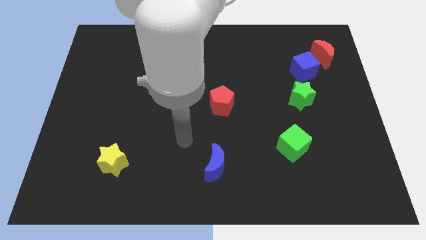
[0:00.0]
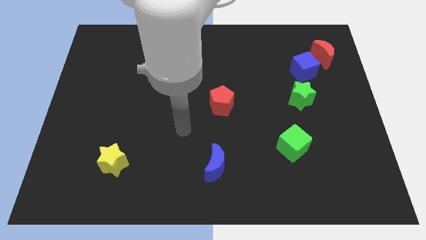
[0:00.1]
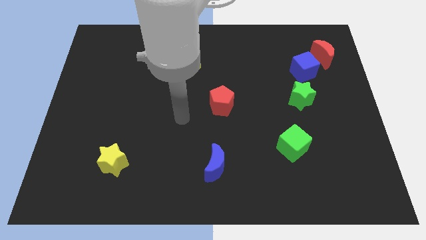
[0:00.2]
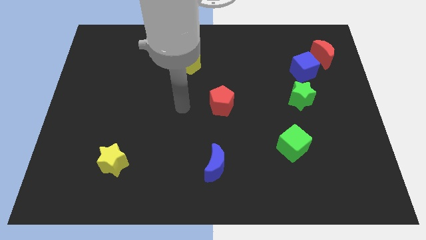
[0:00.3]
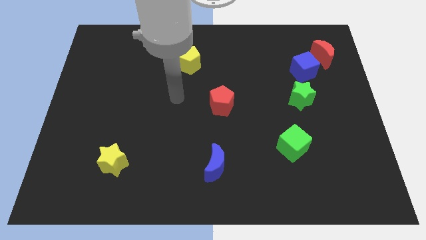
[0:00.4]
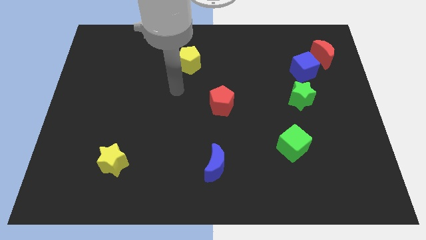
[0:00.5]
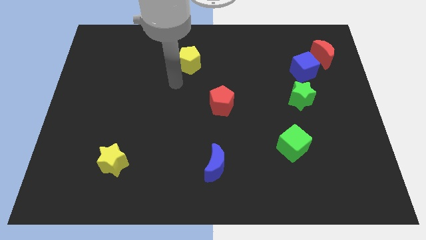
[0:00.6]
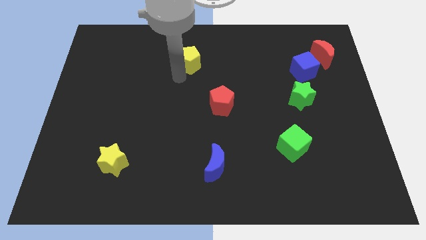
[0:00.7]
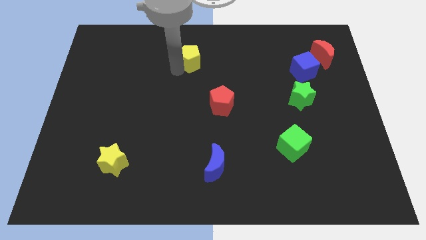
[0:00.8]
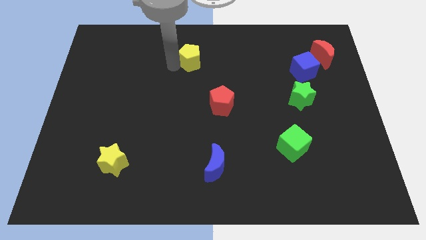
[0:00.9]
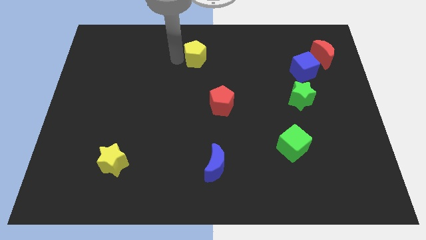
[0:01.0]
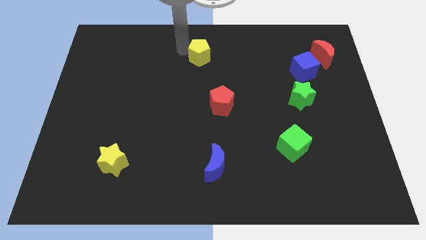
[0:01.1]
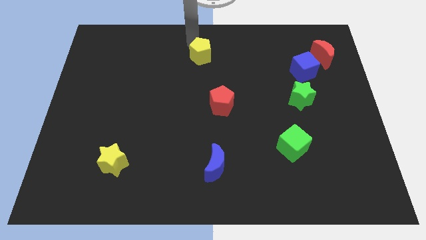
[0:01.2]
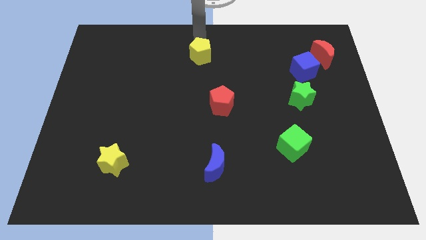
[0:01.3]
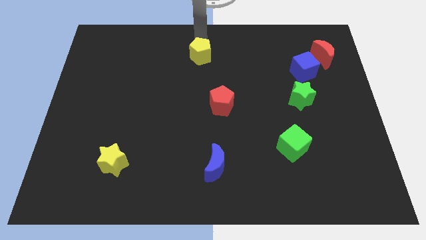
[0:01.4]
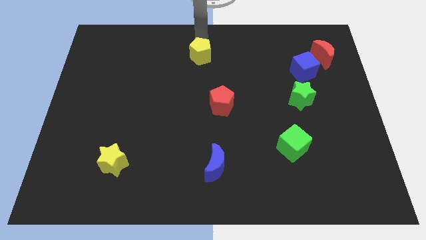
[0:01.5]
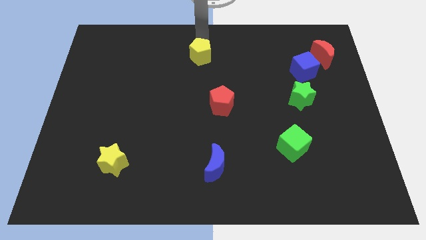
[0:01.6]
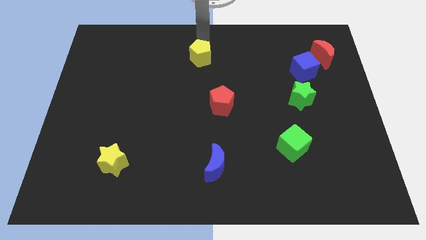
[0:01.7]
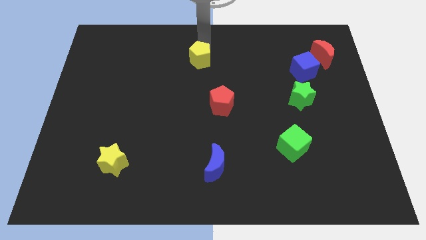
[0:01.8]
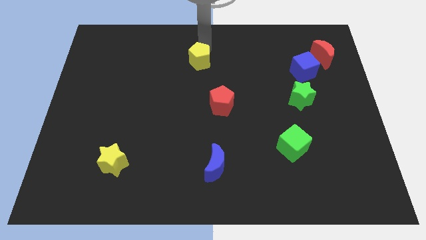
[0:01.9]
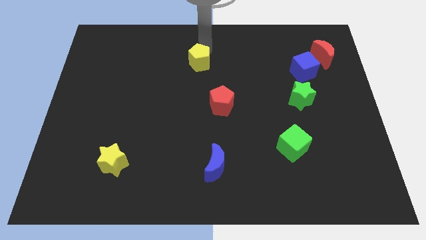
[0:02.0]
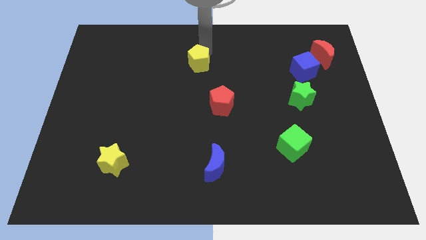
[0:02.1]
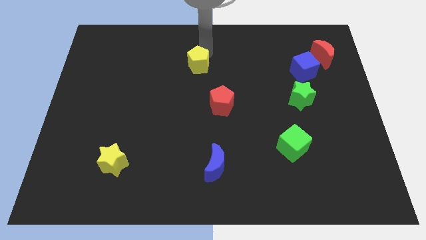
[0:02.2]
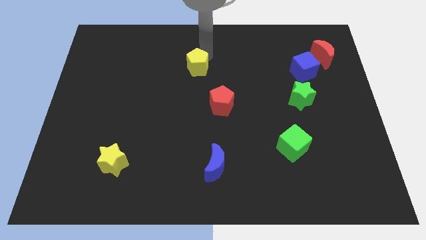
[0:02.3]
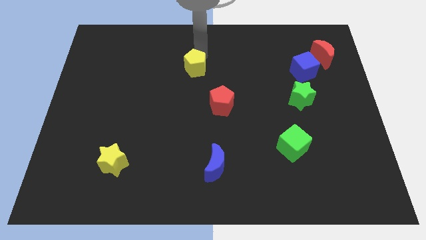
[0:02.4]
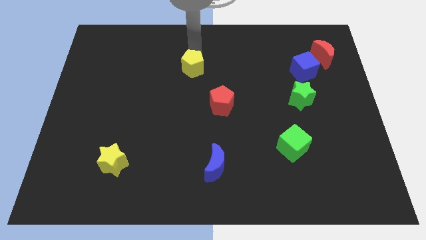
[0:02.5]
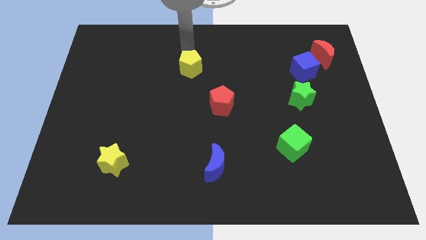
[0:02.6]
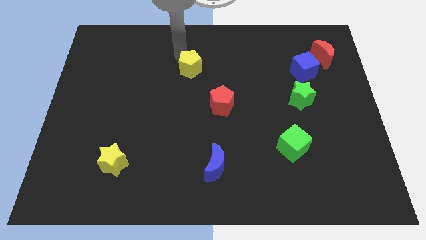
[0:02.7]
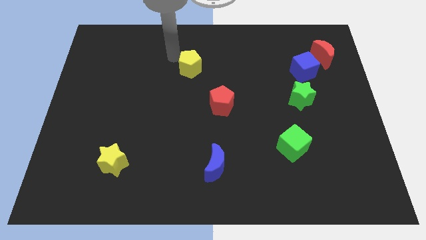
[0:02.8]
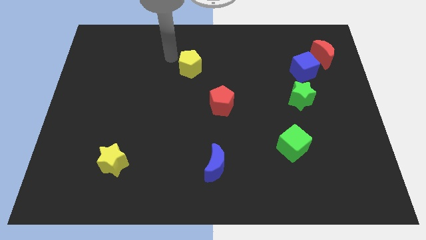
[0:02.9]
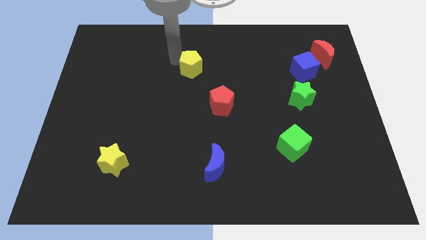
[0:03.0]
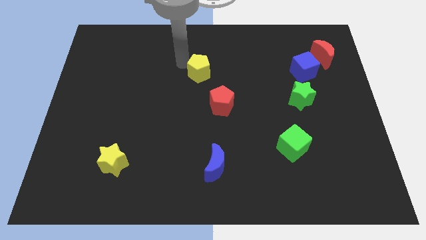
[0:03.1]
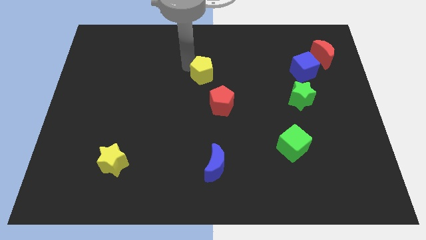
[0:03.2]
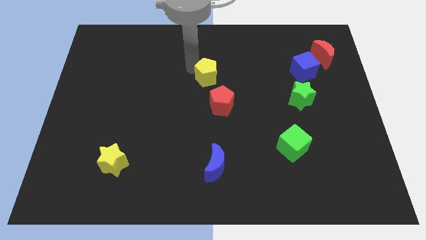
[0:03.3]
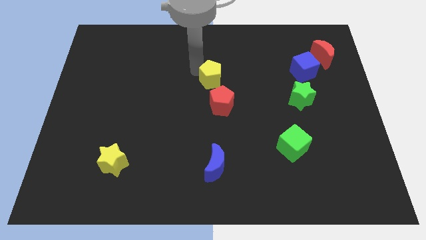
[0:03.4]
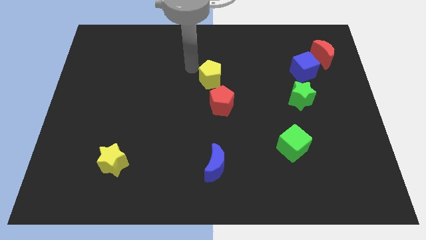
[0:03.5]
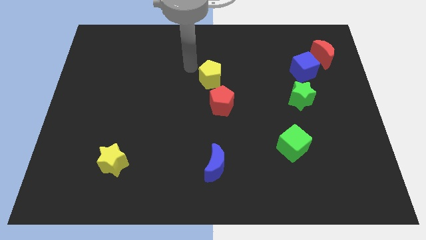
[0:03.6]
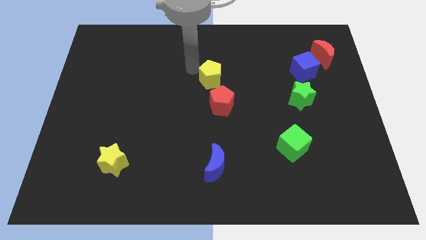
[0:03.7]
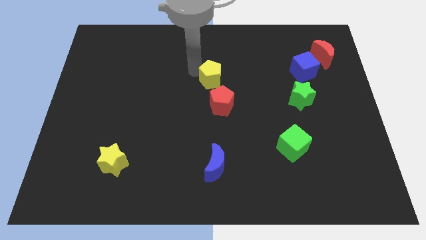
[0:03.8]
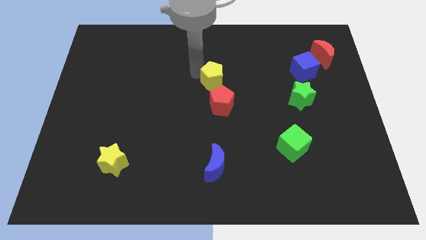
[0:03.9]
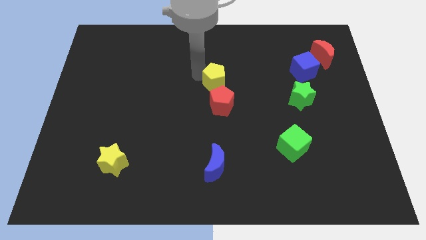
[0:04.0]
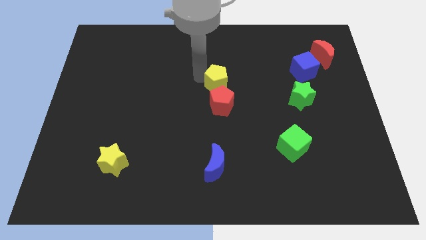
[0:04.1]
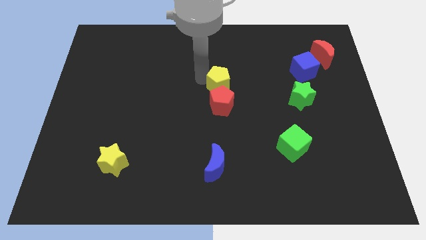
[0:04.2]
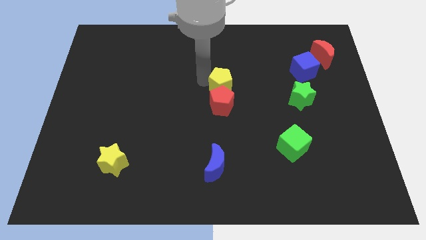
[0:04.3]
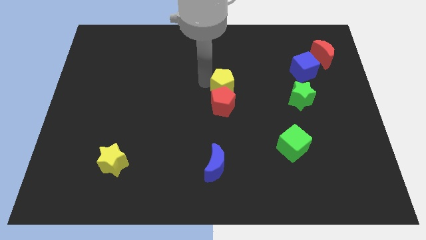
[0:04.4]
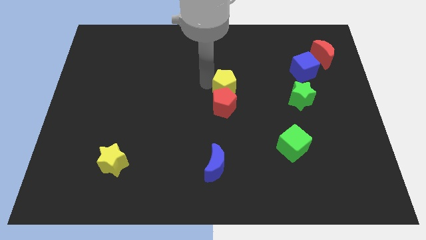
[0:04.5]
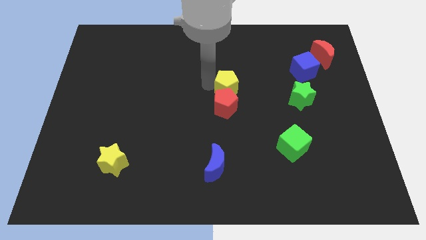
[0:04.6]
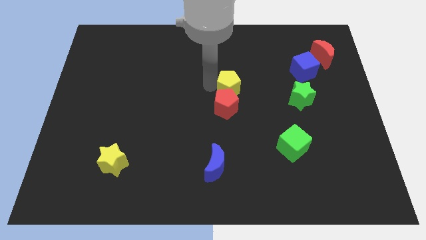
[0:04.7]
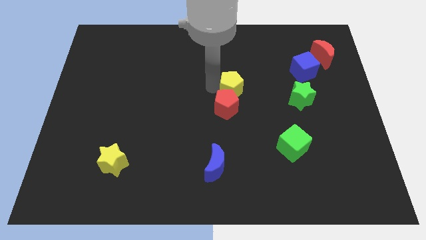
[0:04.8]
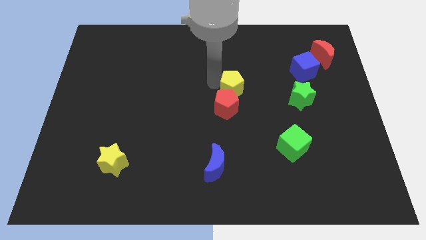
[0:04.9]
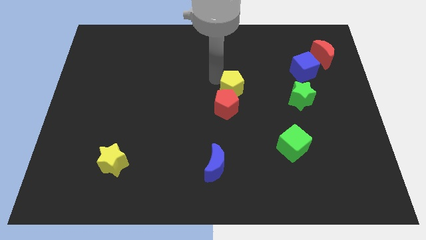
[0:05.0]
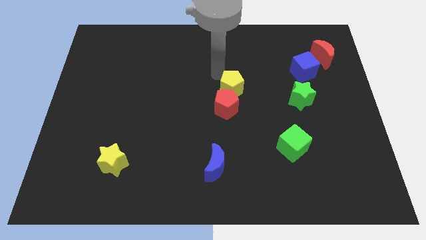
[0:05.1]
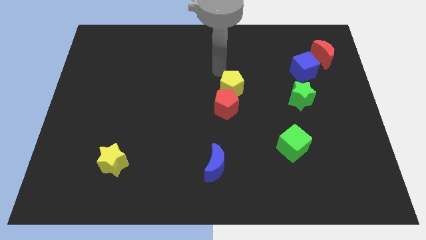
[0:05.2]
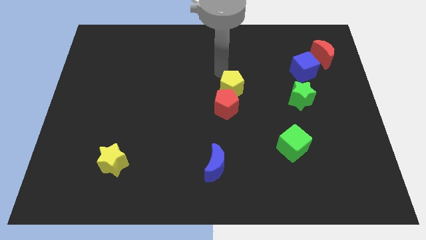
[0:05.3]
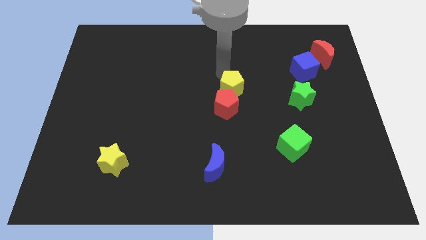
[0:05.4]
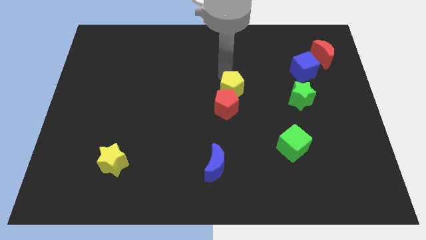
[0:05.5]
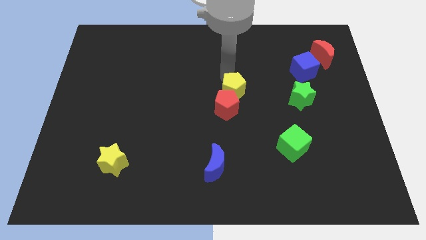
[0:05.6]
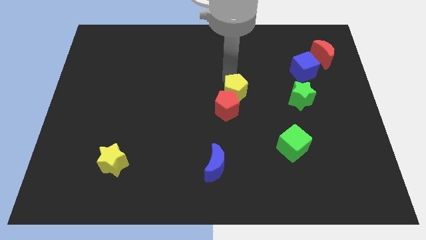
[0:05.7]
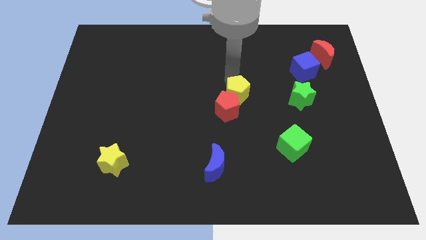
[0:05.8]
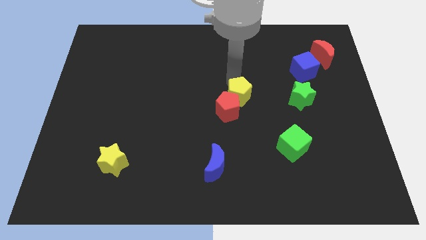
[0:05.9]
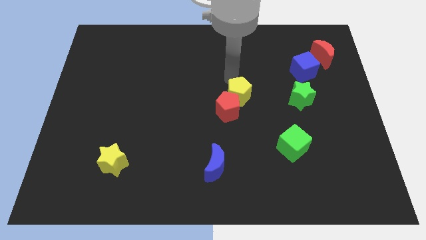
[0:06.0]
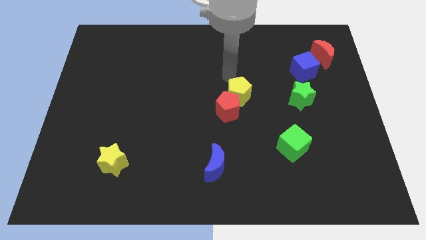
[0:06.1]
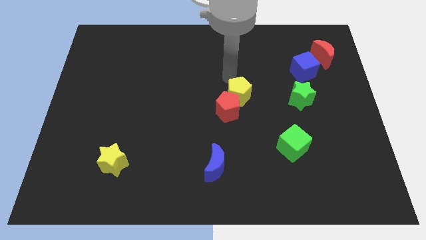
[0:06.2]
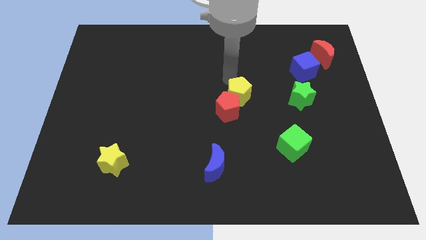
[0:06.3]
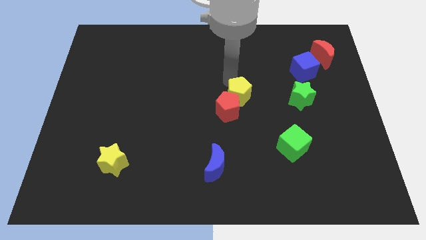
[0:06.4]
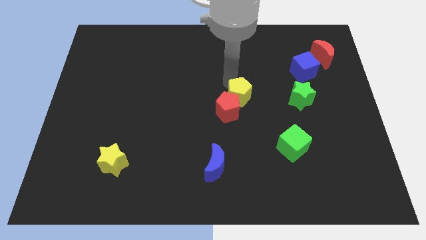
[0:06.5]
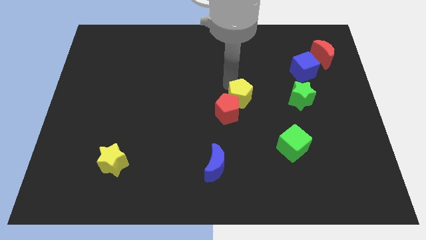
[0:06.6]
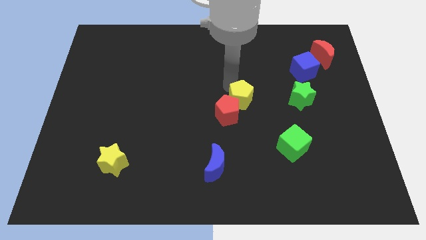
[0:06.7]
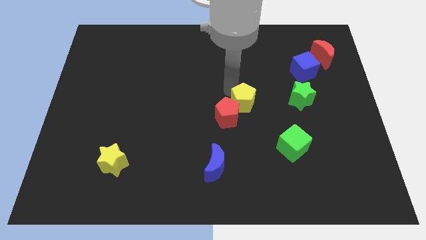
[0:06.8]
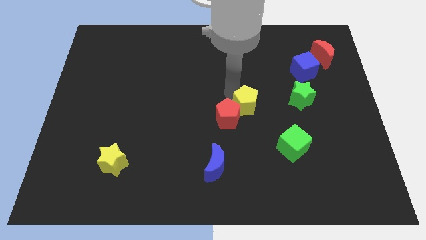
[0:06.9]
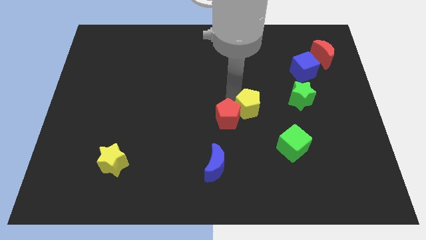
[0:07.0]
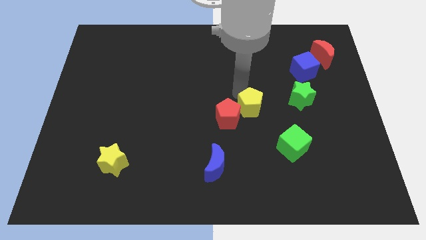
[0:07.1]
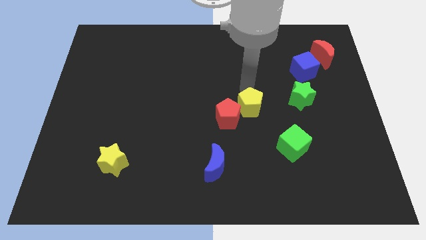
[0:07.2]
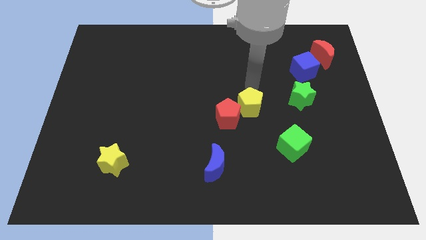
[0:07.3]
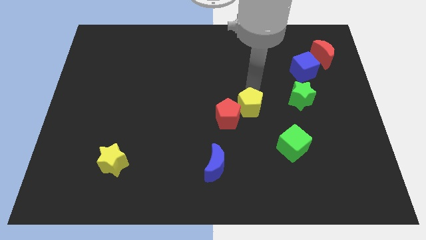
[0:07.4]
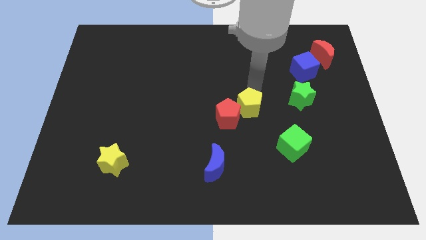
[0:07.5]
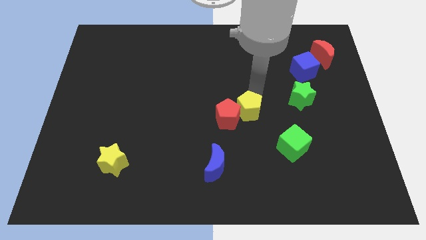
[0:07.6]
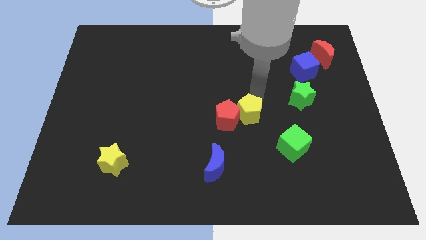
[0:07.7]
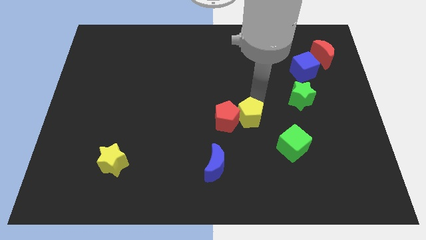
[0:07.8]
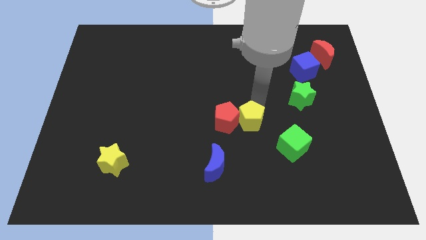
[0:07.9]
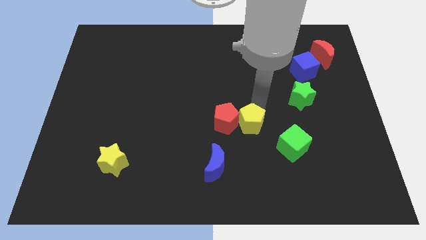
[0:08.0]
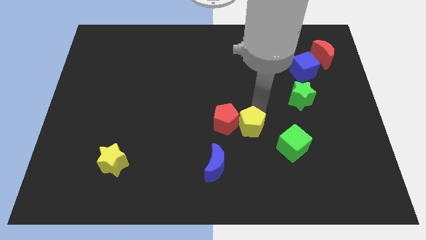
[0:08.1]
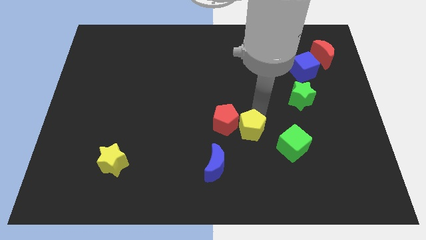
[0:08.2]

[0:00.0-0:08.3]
move the yellow pentagon to the left side of the green cube
